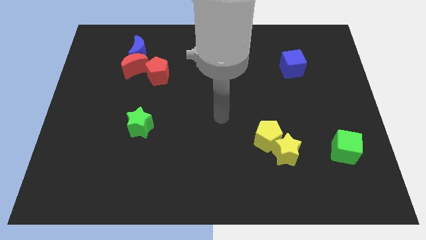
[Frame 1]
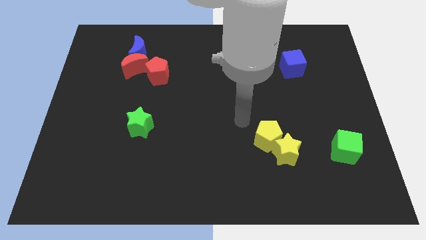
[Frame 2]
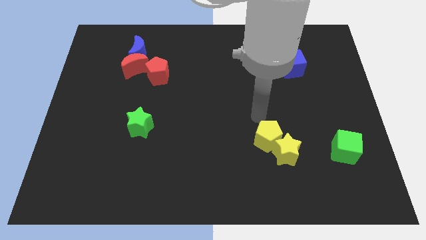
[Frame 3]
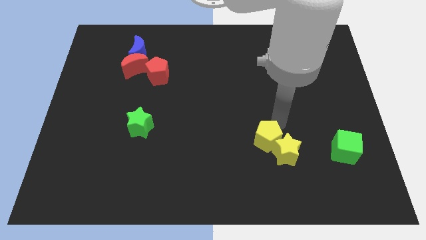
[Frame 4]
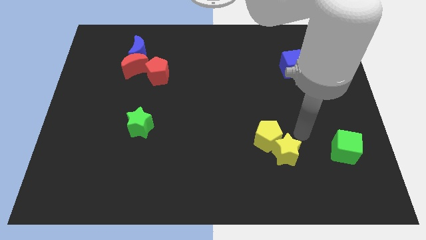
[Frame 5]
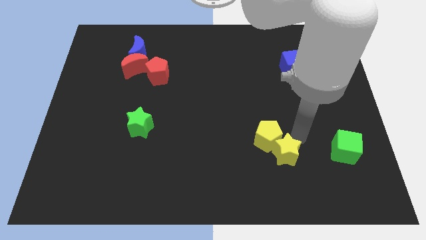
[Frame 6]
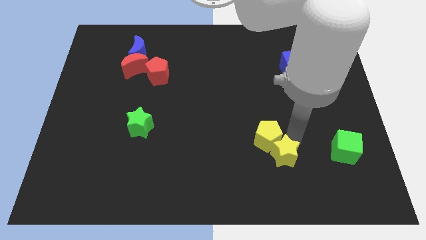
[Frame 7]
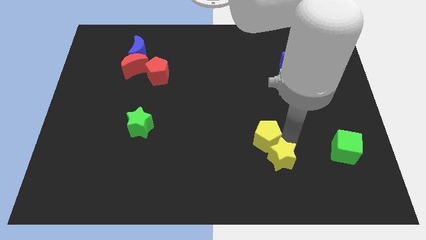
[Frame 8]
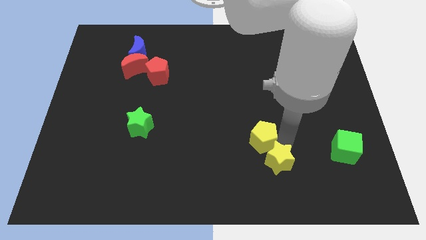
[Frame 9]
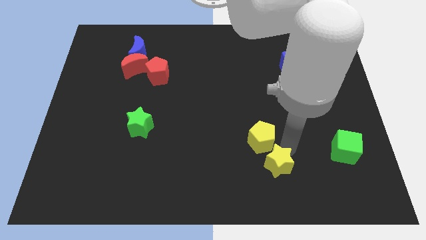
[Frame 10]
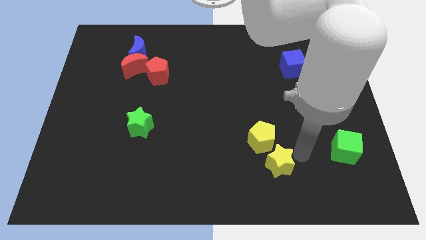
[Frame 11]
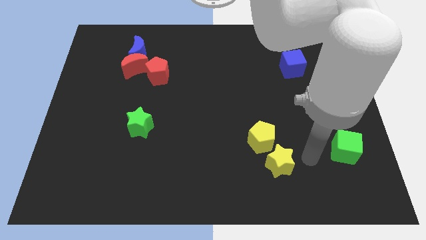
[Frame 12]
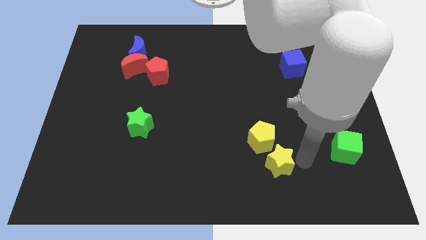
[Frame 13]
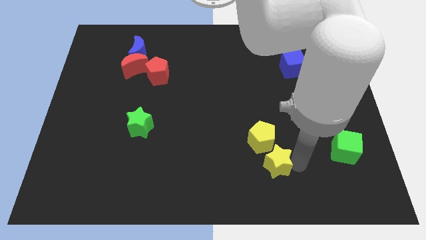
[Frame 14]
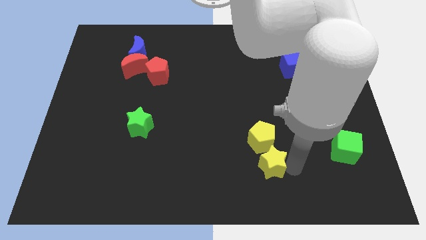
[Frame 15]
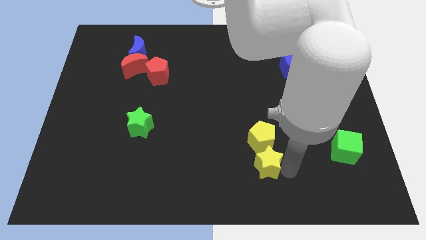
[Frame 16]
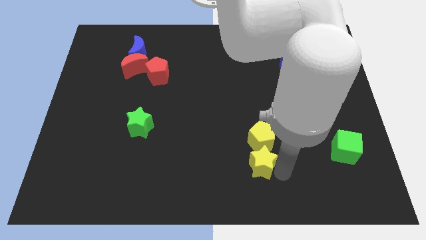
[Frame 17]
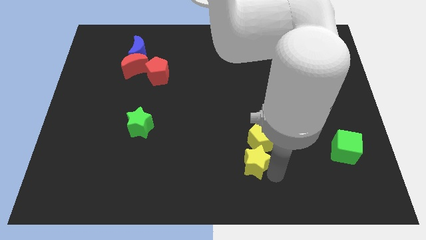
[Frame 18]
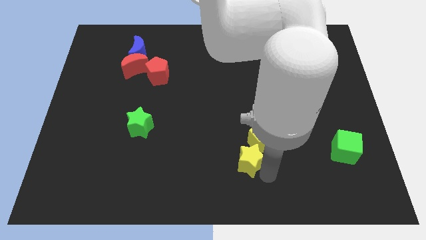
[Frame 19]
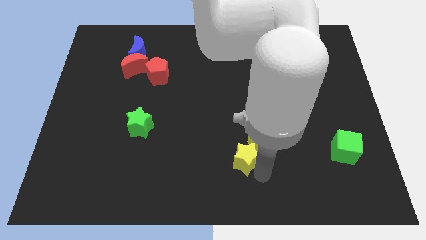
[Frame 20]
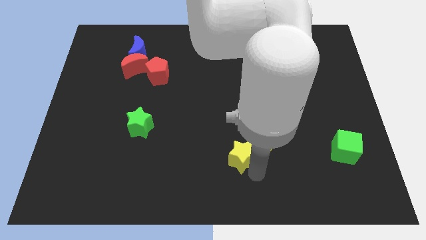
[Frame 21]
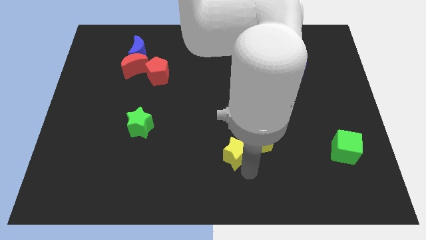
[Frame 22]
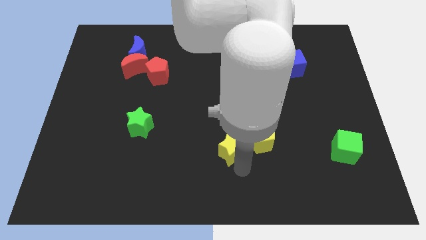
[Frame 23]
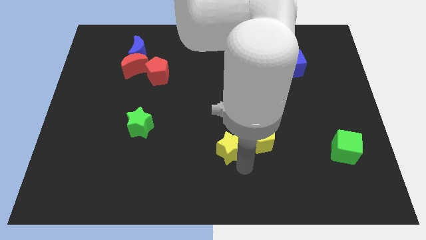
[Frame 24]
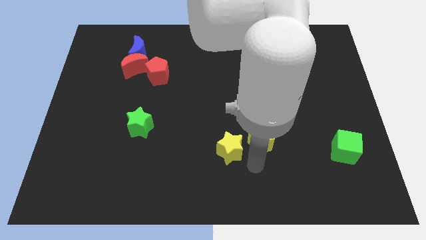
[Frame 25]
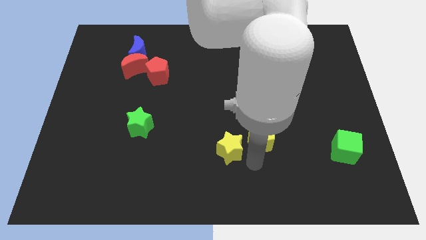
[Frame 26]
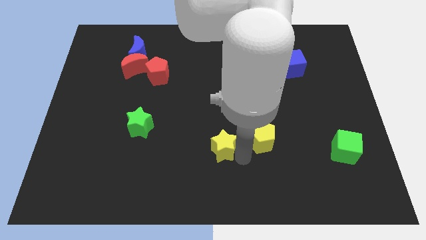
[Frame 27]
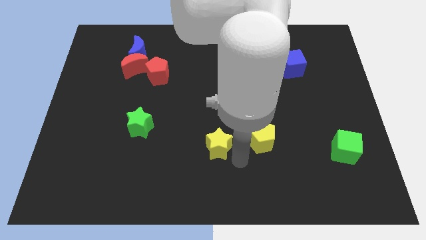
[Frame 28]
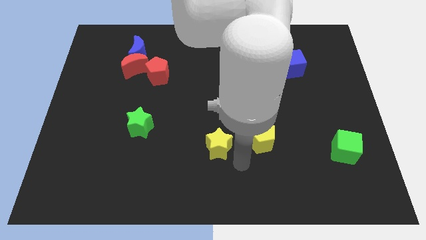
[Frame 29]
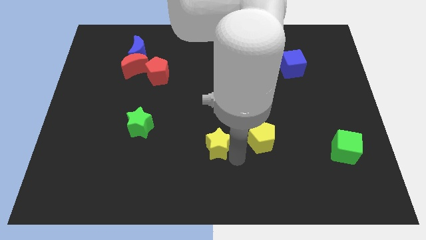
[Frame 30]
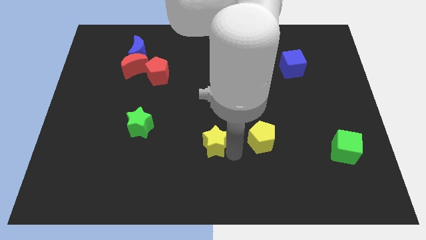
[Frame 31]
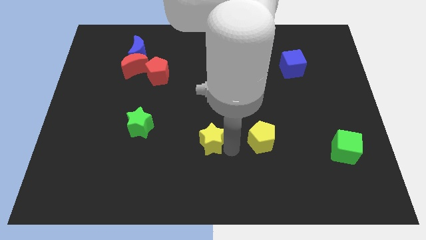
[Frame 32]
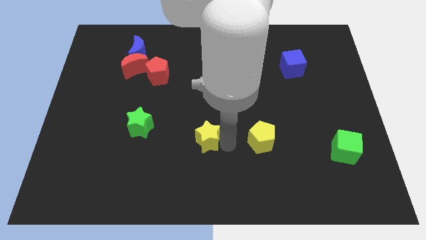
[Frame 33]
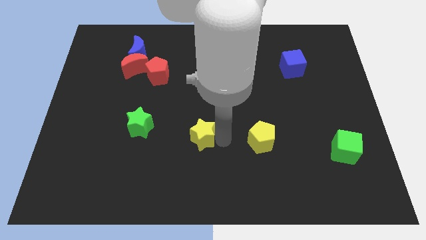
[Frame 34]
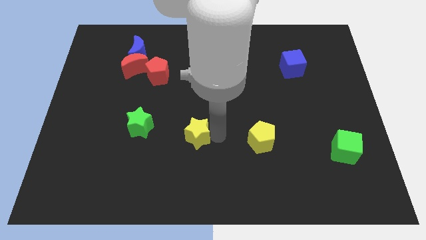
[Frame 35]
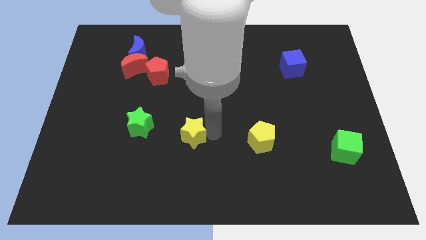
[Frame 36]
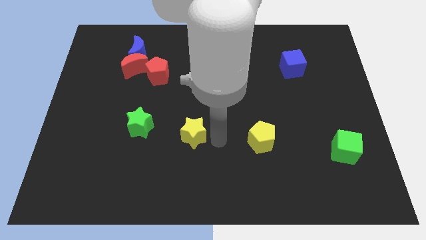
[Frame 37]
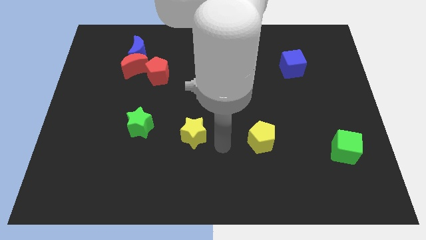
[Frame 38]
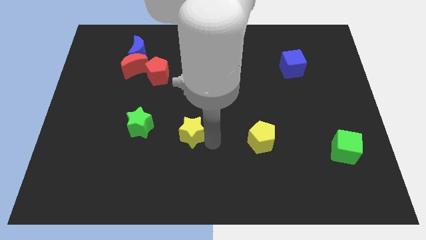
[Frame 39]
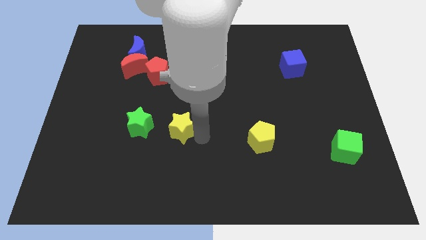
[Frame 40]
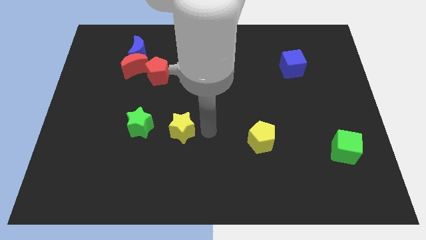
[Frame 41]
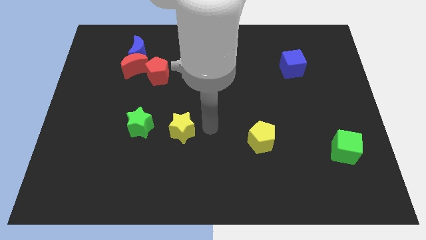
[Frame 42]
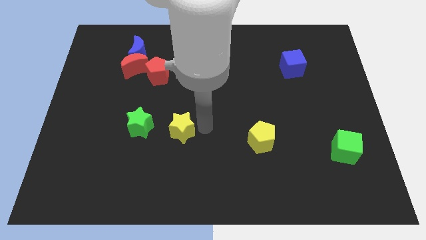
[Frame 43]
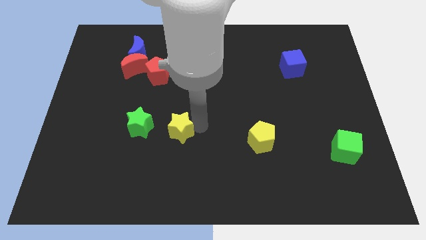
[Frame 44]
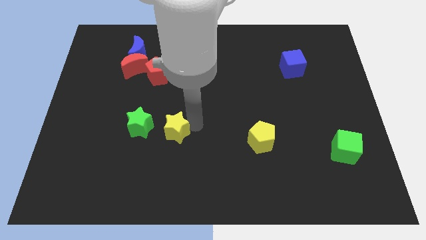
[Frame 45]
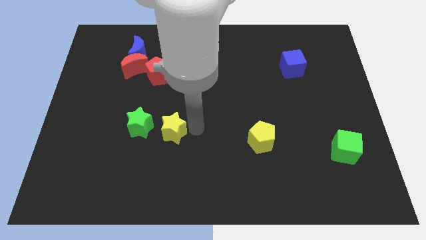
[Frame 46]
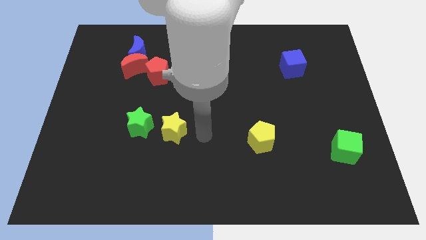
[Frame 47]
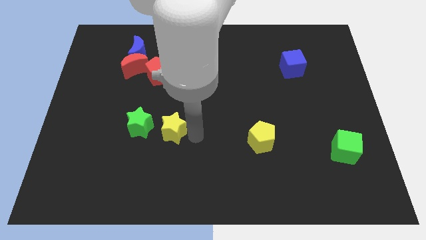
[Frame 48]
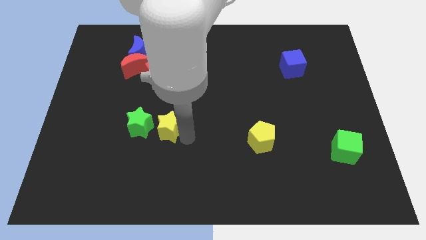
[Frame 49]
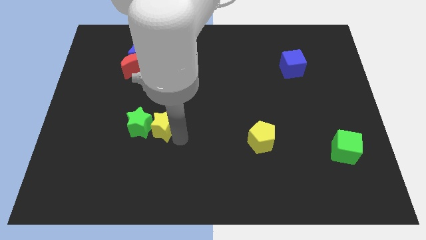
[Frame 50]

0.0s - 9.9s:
put the yellow star towards the green star

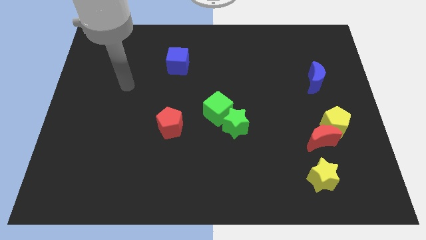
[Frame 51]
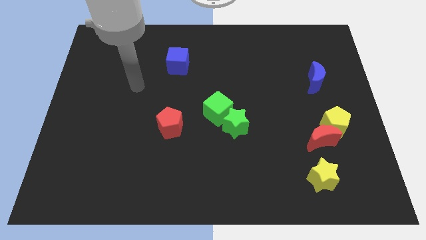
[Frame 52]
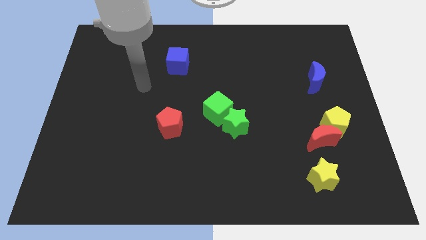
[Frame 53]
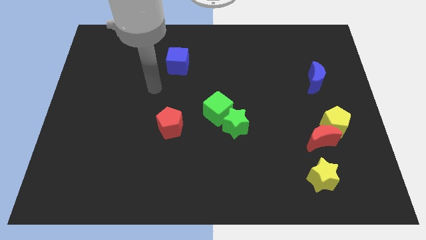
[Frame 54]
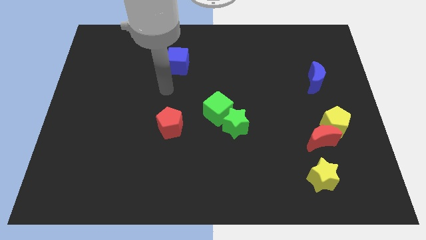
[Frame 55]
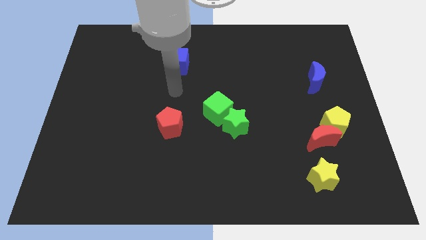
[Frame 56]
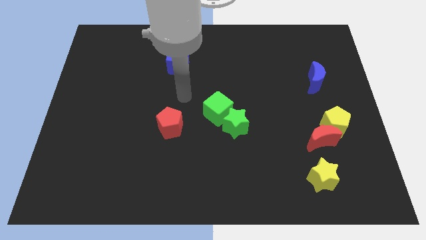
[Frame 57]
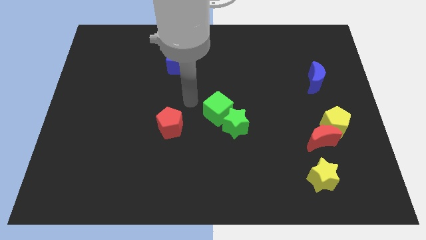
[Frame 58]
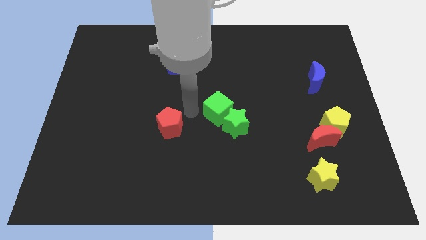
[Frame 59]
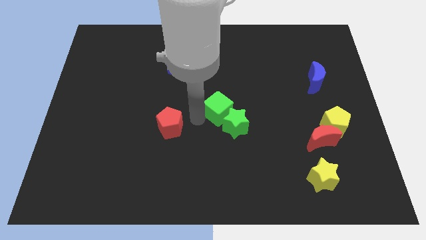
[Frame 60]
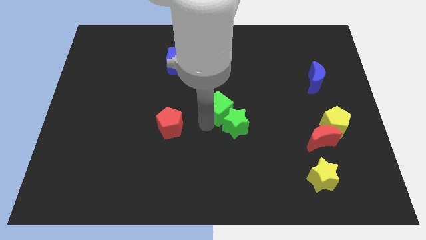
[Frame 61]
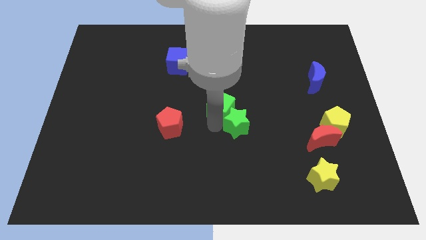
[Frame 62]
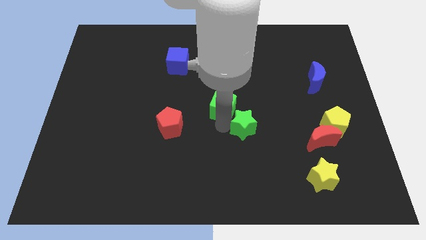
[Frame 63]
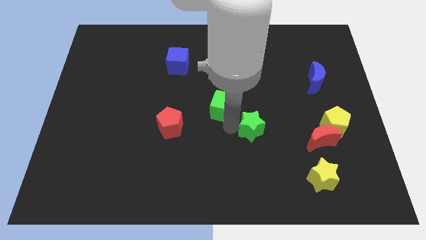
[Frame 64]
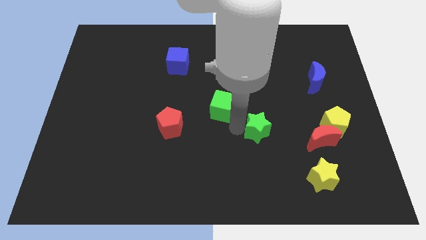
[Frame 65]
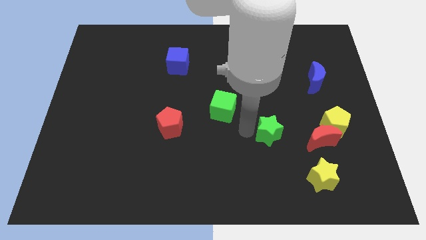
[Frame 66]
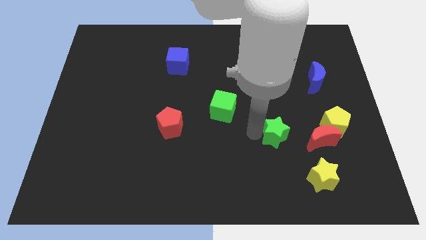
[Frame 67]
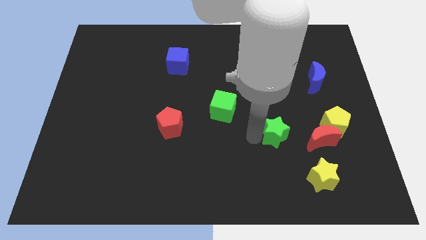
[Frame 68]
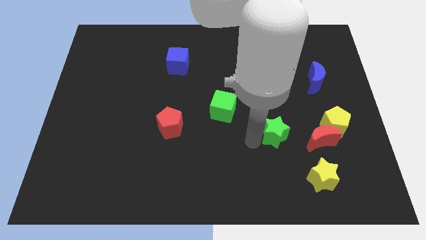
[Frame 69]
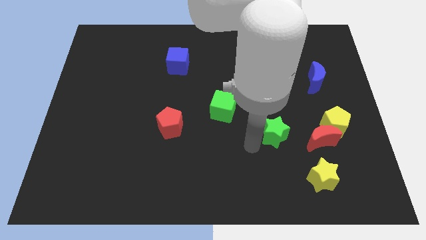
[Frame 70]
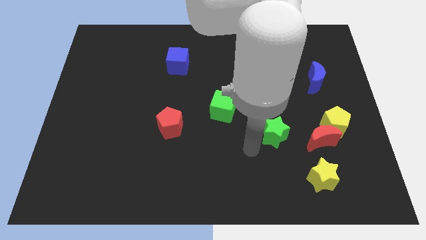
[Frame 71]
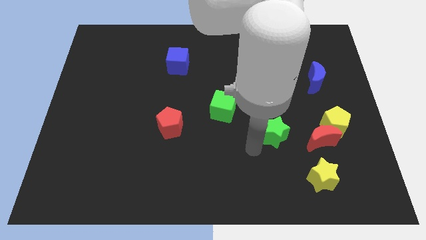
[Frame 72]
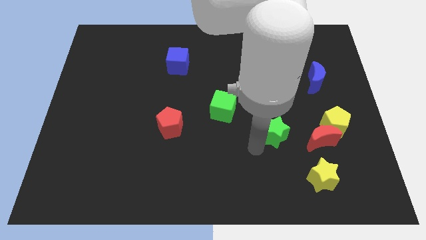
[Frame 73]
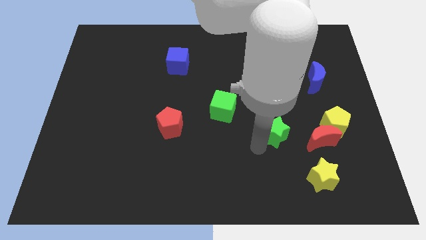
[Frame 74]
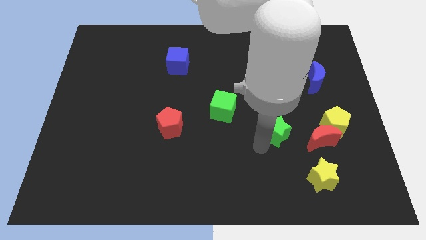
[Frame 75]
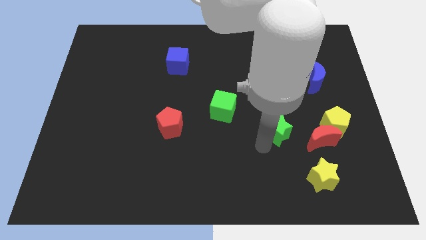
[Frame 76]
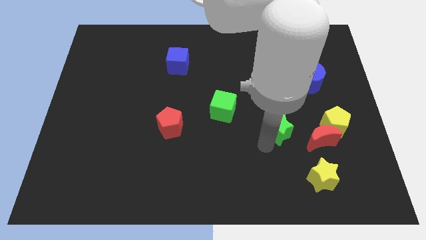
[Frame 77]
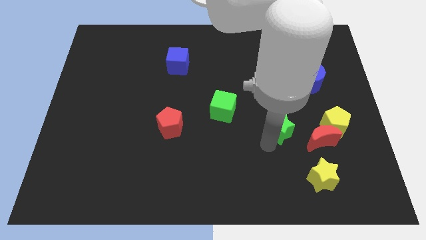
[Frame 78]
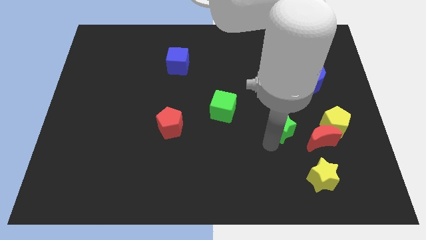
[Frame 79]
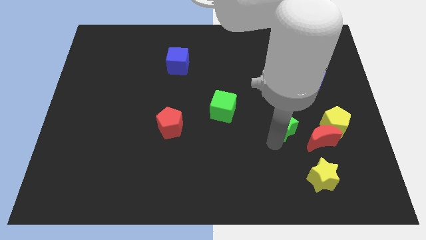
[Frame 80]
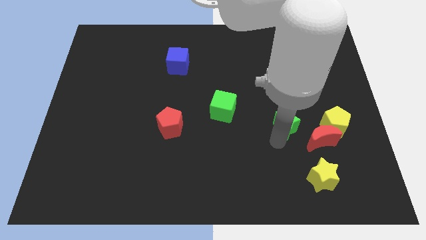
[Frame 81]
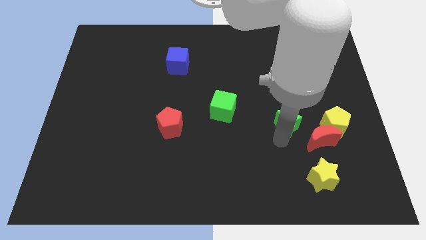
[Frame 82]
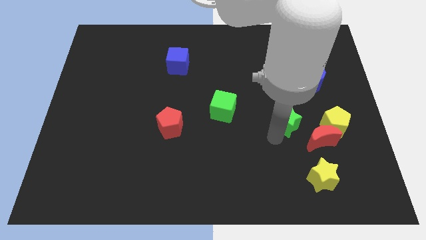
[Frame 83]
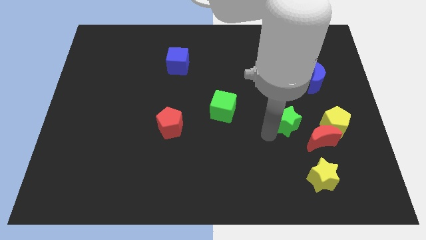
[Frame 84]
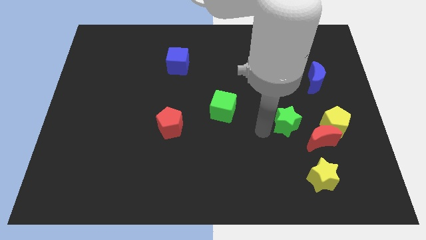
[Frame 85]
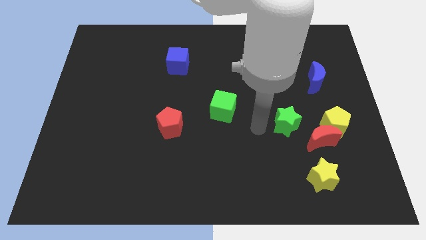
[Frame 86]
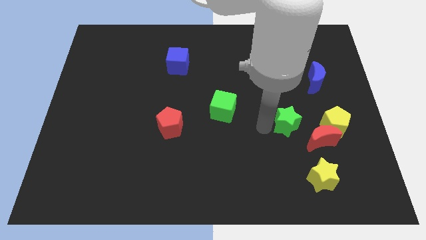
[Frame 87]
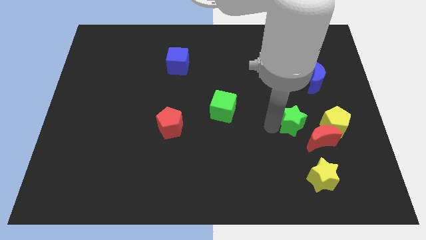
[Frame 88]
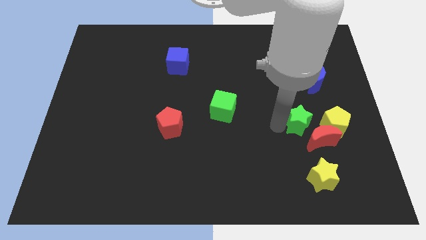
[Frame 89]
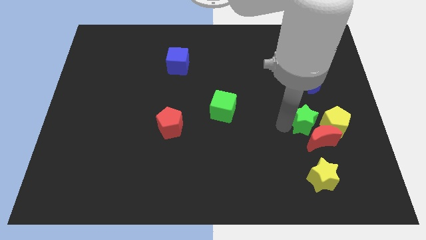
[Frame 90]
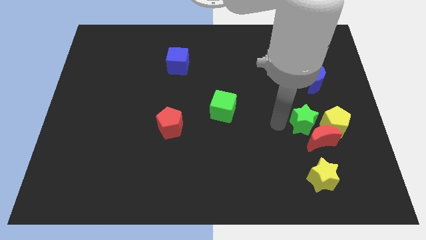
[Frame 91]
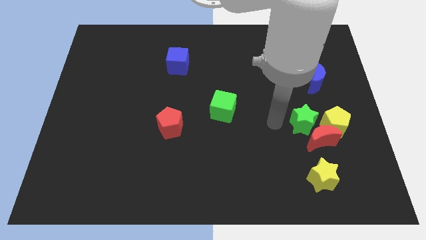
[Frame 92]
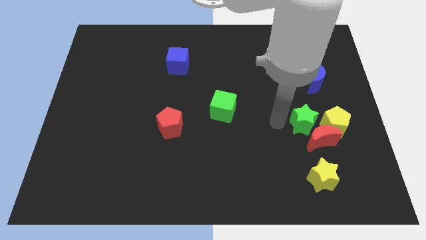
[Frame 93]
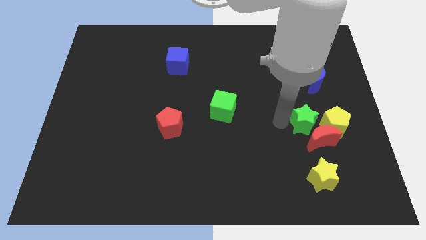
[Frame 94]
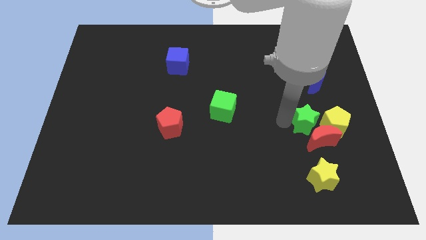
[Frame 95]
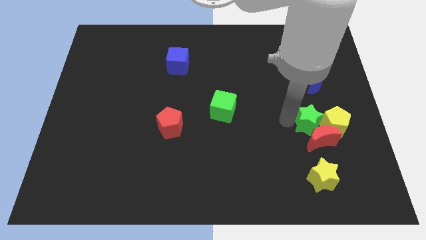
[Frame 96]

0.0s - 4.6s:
put the green star next to the yellow pentagon
